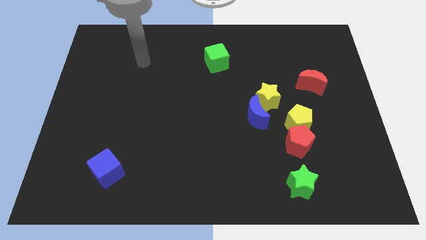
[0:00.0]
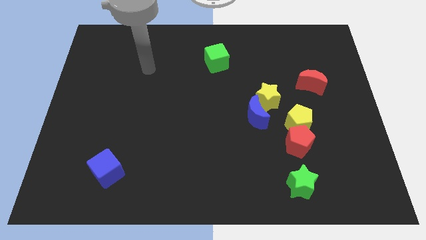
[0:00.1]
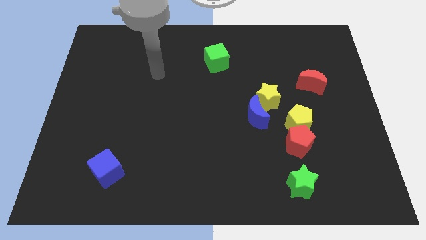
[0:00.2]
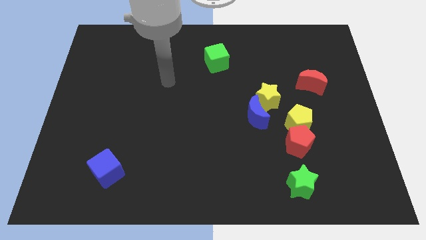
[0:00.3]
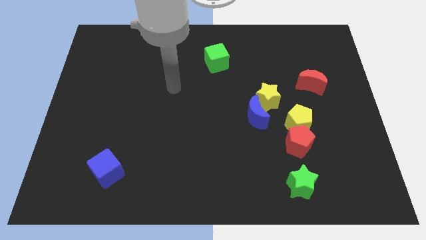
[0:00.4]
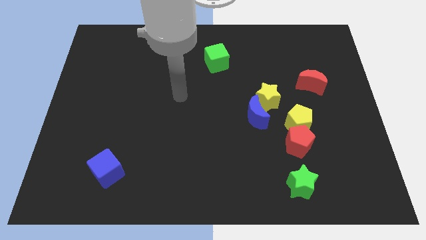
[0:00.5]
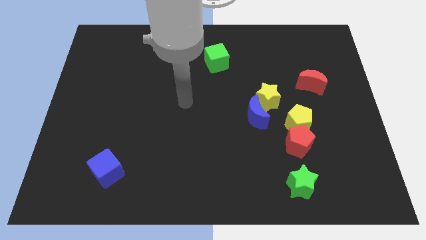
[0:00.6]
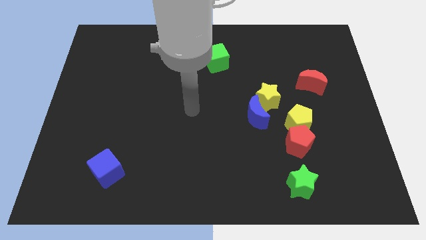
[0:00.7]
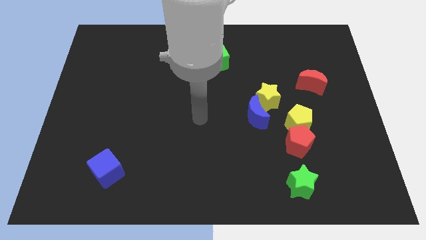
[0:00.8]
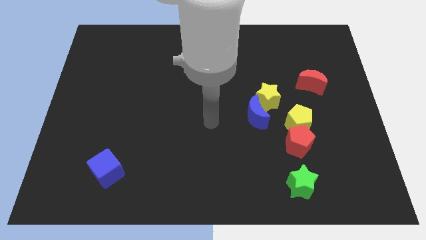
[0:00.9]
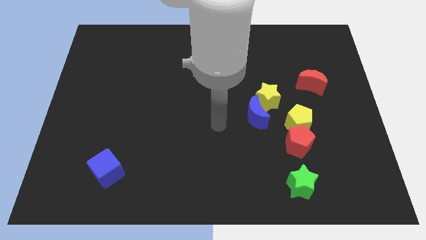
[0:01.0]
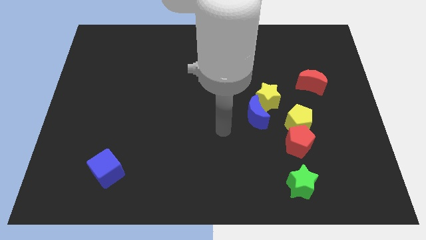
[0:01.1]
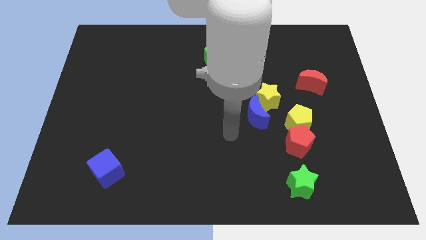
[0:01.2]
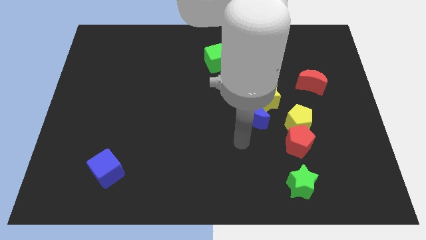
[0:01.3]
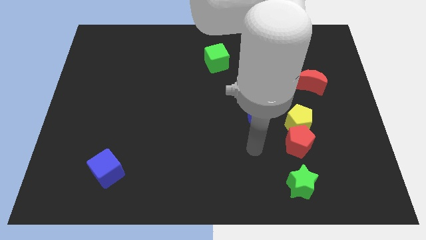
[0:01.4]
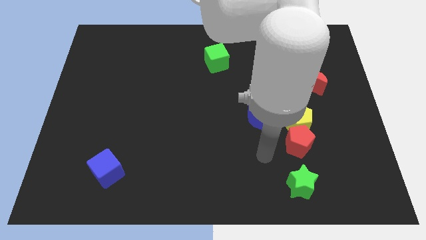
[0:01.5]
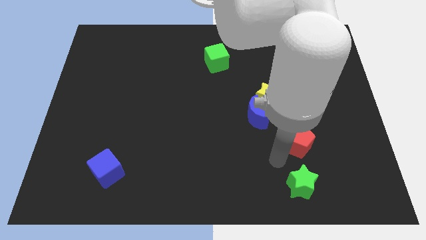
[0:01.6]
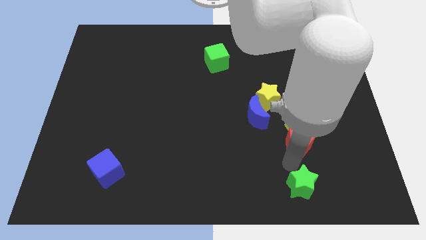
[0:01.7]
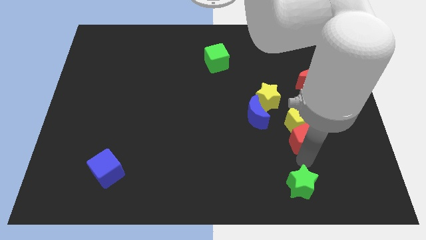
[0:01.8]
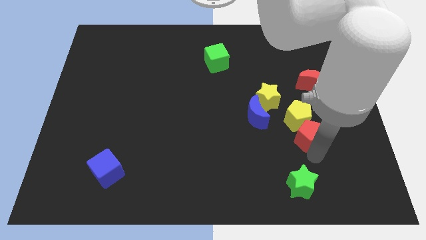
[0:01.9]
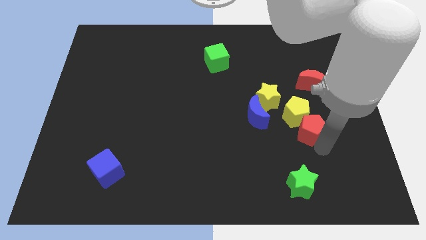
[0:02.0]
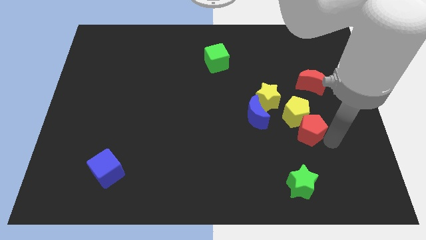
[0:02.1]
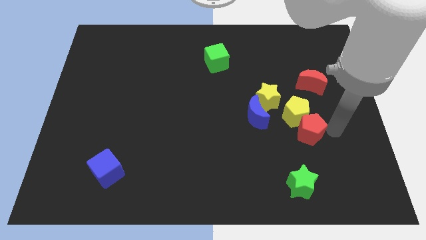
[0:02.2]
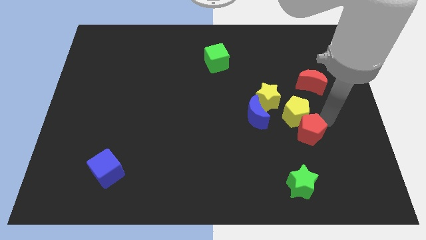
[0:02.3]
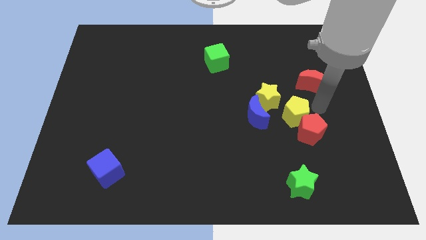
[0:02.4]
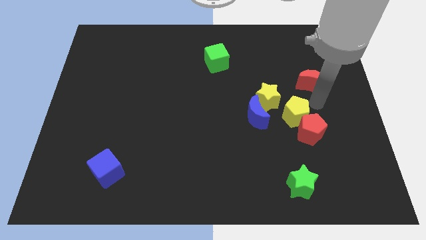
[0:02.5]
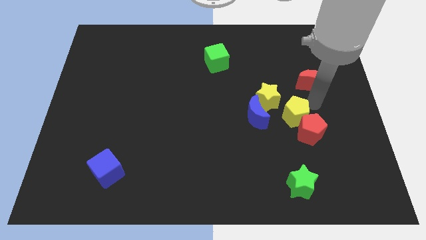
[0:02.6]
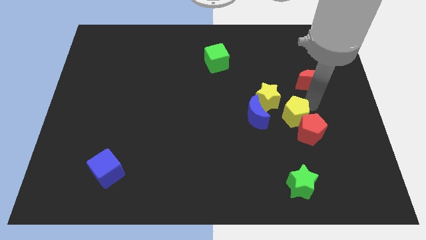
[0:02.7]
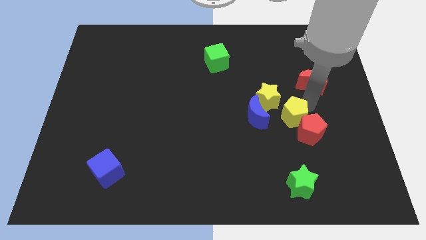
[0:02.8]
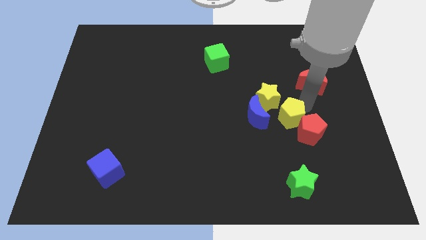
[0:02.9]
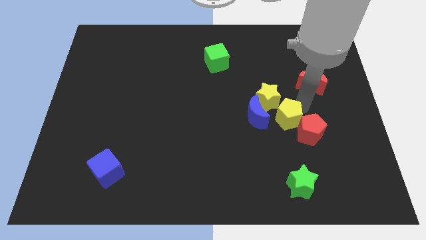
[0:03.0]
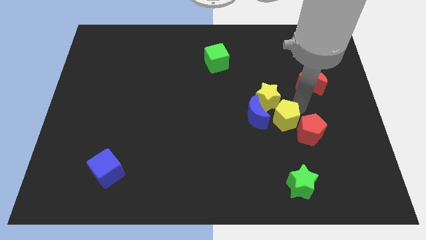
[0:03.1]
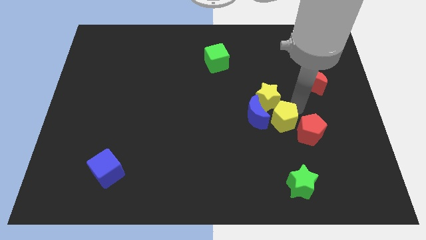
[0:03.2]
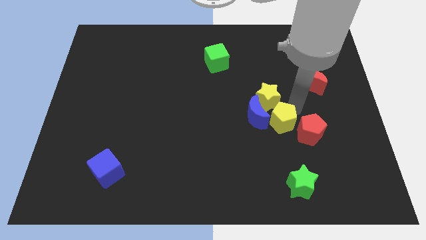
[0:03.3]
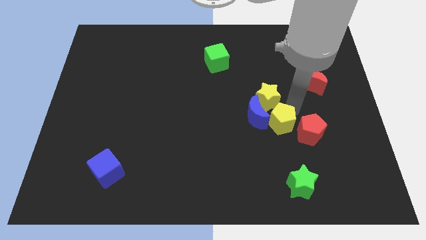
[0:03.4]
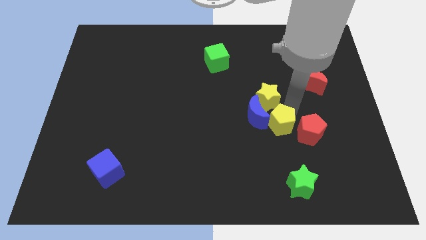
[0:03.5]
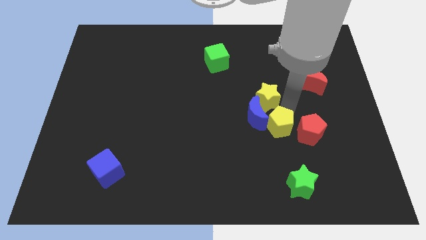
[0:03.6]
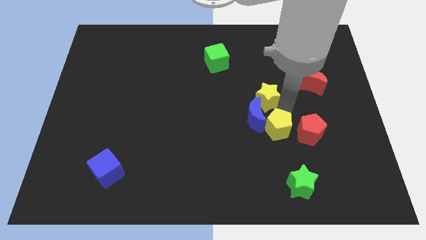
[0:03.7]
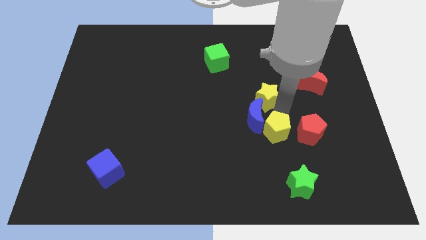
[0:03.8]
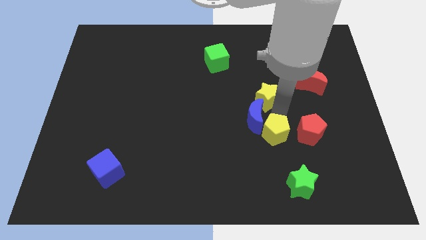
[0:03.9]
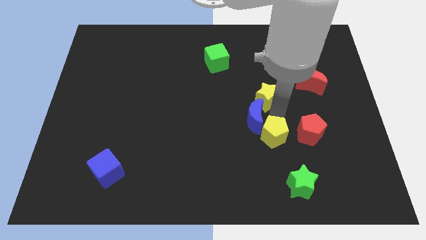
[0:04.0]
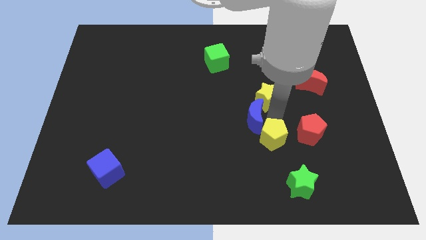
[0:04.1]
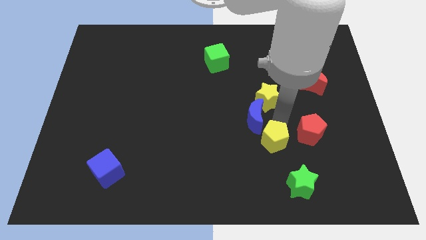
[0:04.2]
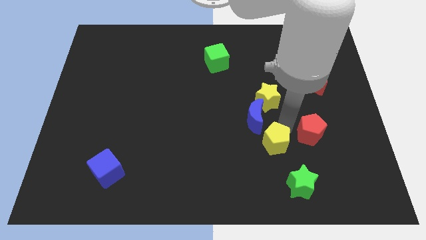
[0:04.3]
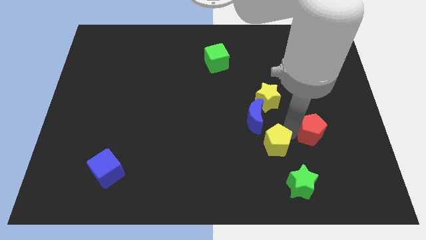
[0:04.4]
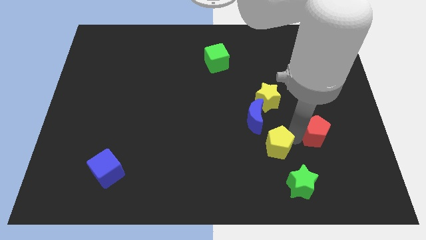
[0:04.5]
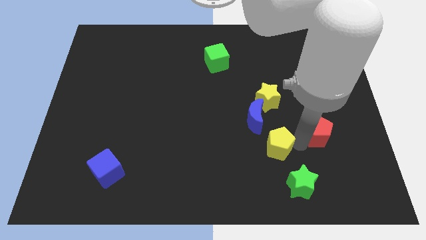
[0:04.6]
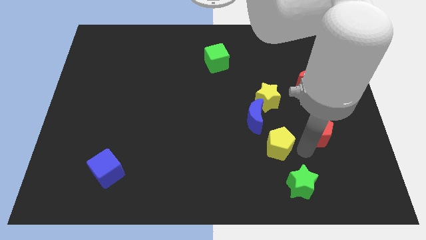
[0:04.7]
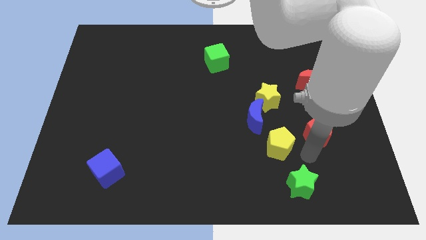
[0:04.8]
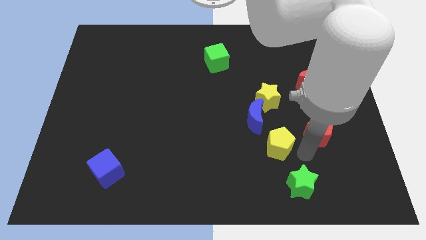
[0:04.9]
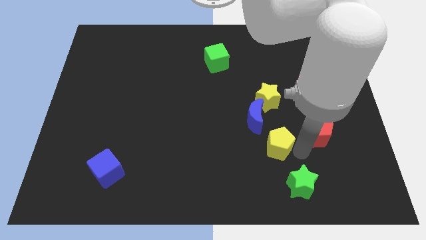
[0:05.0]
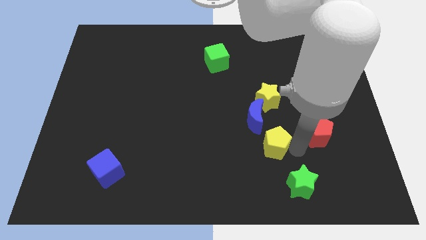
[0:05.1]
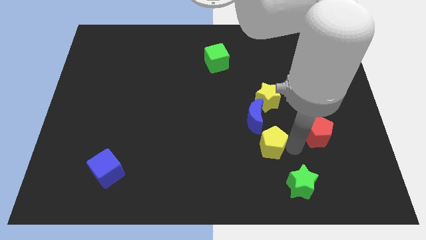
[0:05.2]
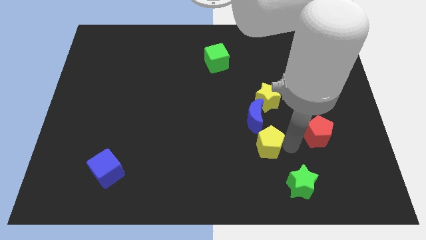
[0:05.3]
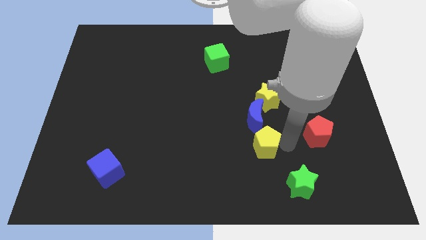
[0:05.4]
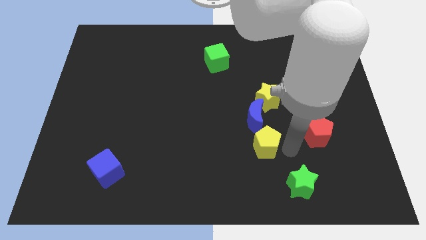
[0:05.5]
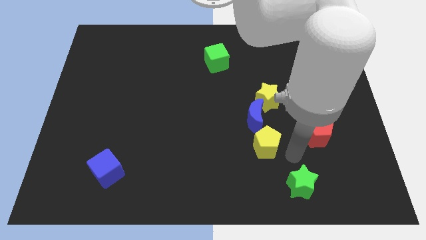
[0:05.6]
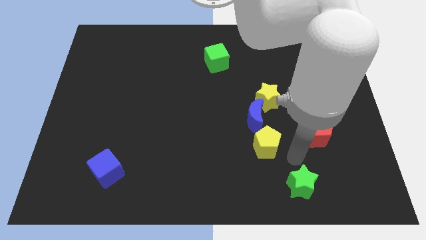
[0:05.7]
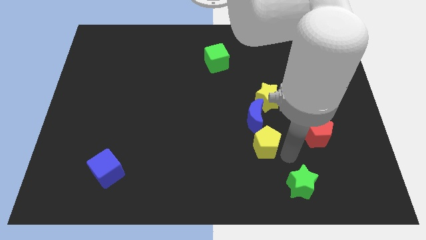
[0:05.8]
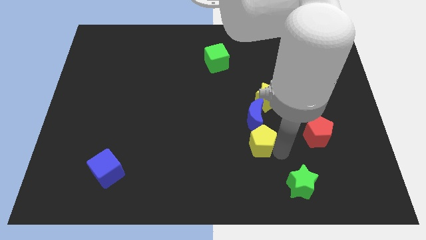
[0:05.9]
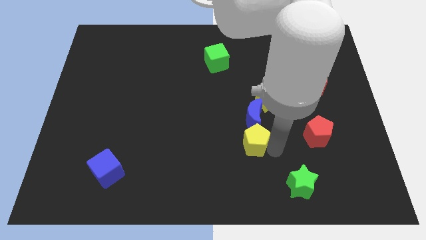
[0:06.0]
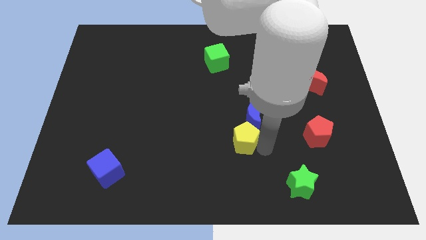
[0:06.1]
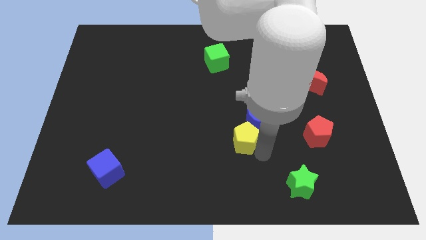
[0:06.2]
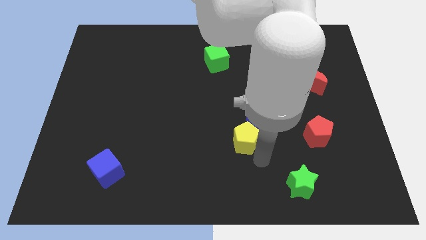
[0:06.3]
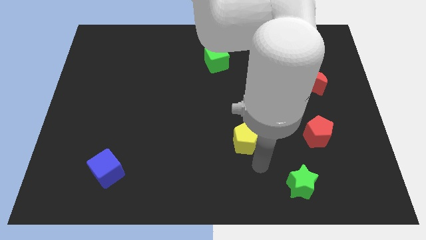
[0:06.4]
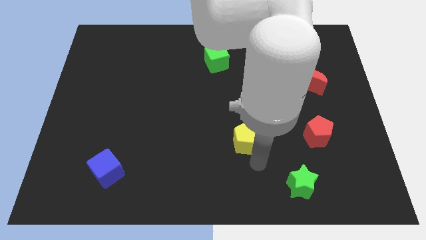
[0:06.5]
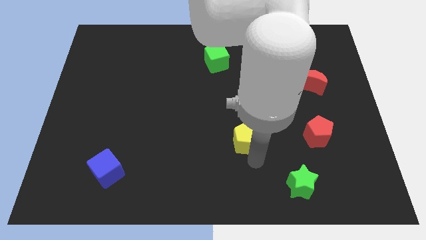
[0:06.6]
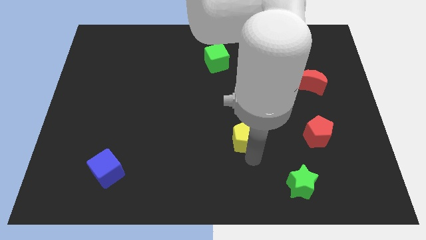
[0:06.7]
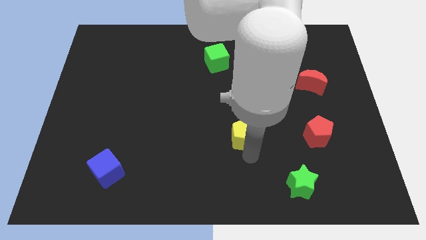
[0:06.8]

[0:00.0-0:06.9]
push the yellow pentagon to the center
